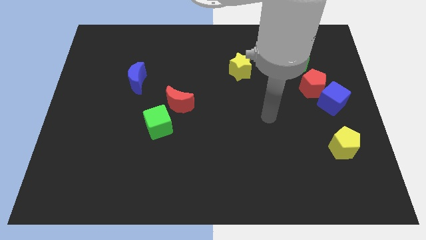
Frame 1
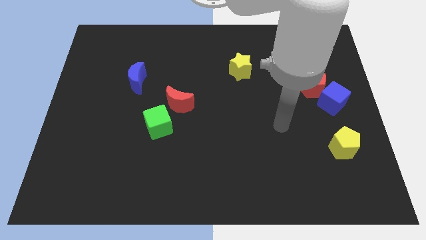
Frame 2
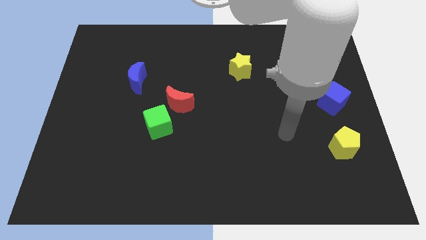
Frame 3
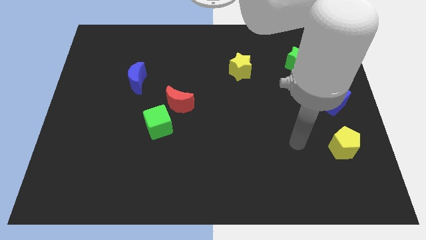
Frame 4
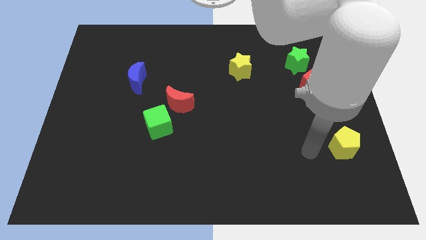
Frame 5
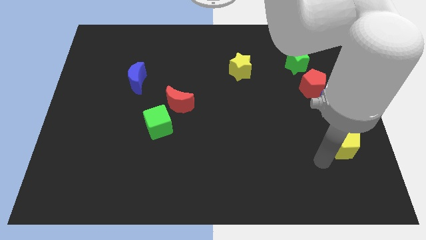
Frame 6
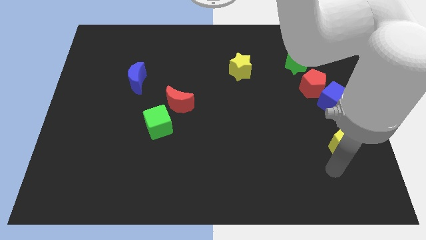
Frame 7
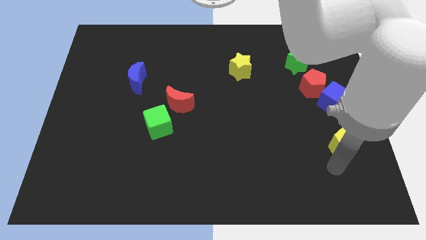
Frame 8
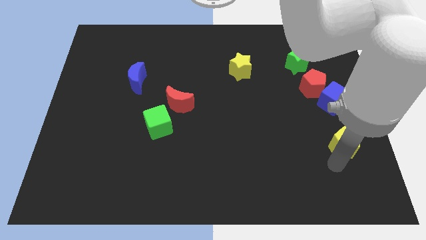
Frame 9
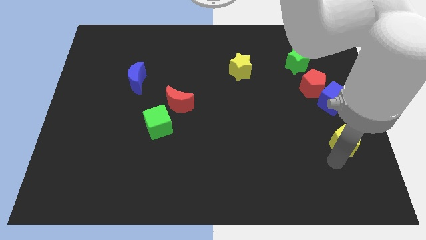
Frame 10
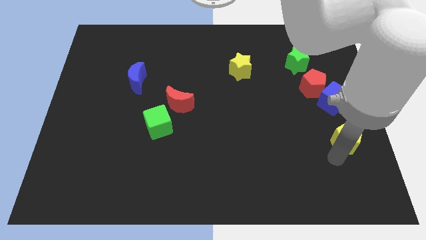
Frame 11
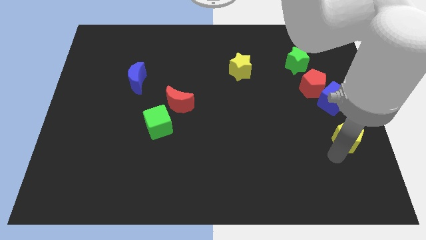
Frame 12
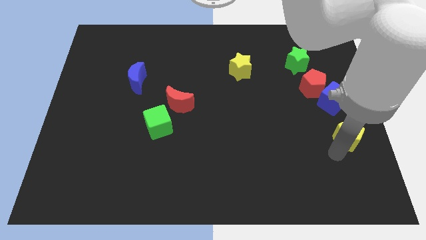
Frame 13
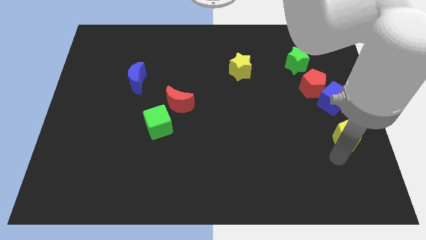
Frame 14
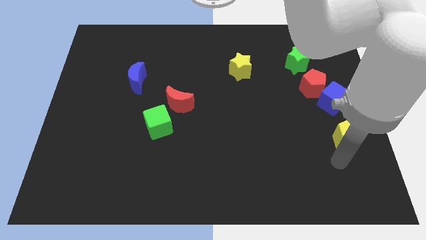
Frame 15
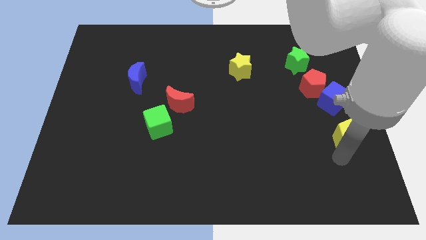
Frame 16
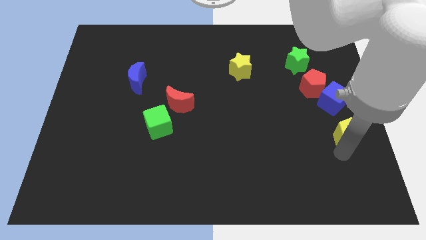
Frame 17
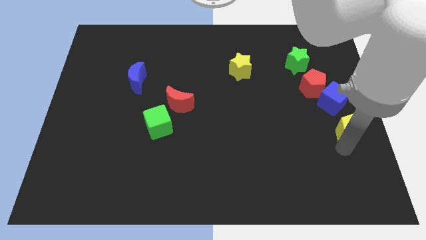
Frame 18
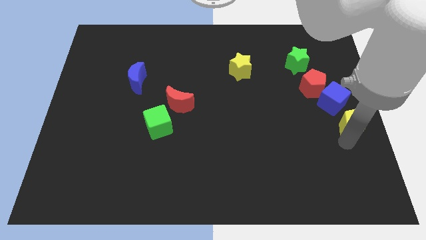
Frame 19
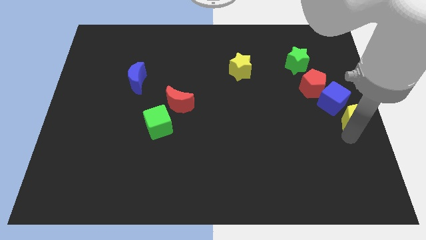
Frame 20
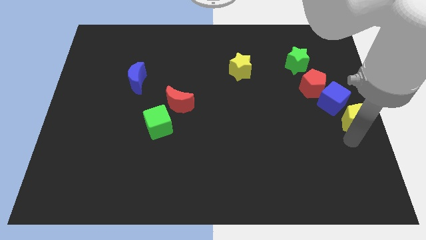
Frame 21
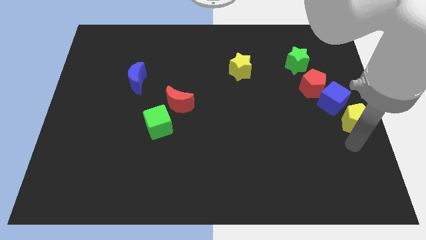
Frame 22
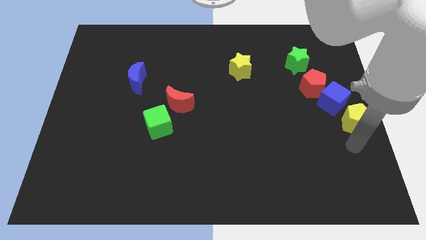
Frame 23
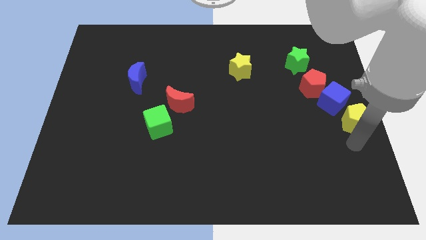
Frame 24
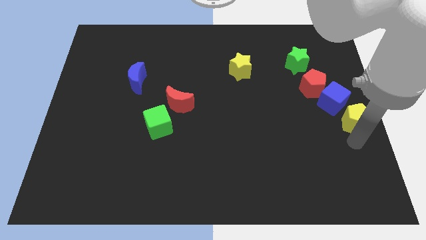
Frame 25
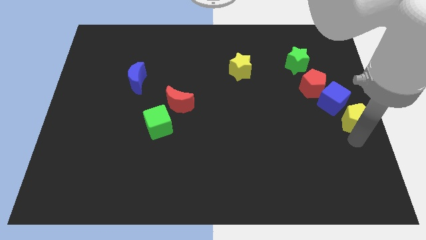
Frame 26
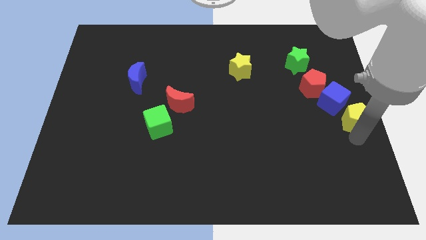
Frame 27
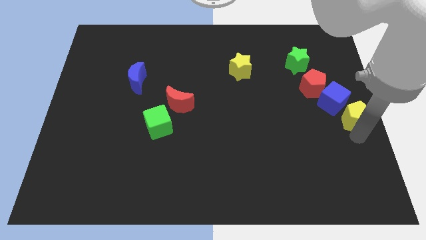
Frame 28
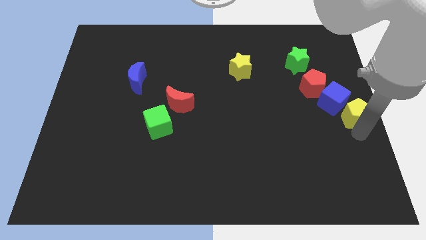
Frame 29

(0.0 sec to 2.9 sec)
push the yellow pentagon up somewhat

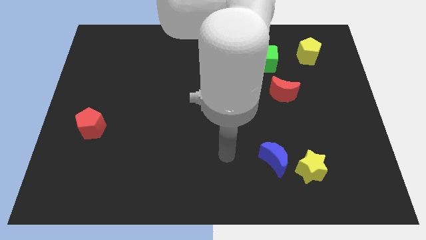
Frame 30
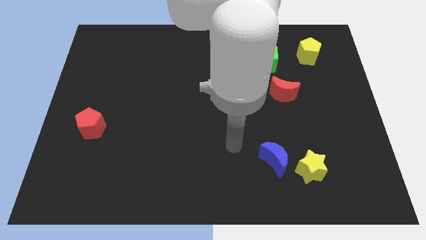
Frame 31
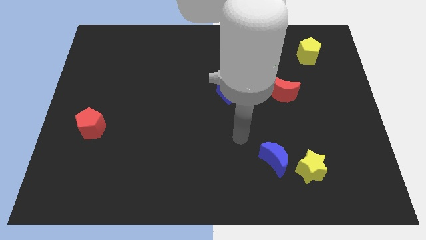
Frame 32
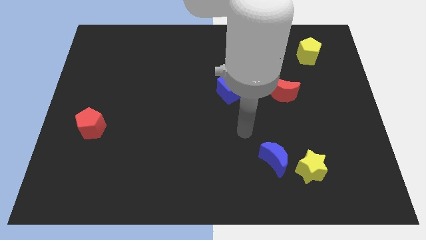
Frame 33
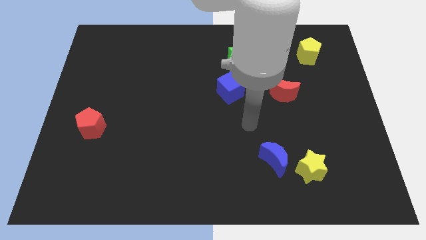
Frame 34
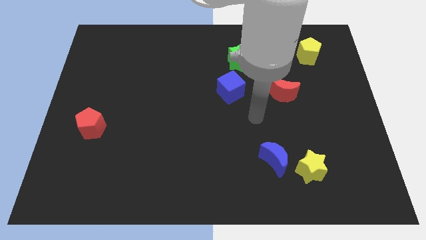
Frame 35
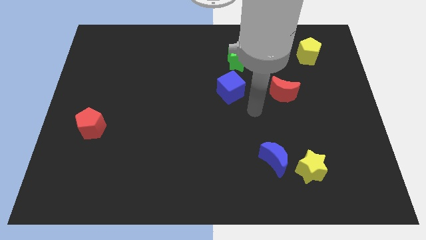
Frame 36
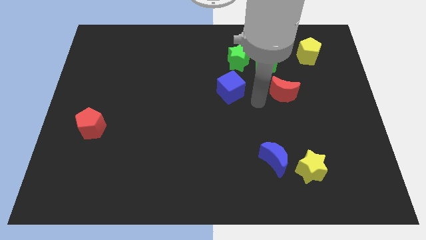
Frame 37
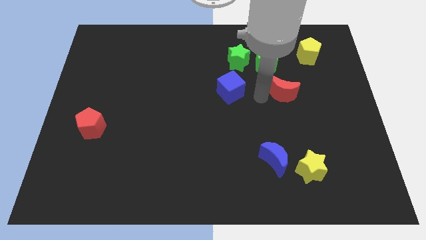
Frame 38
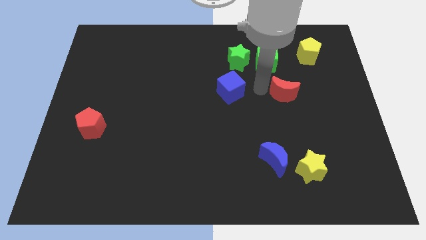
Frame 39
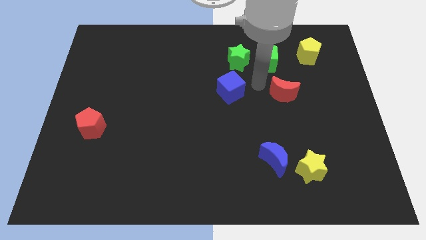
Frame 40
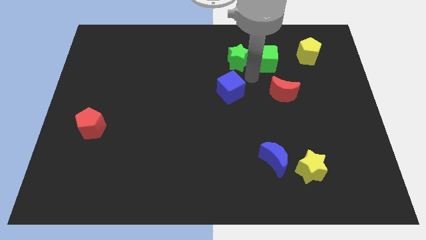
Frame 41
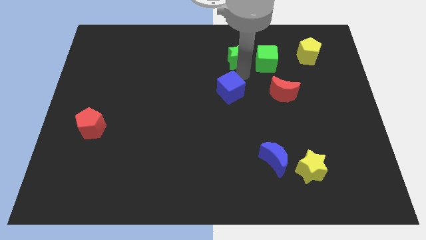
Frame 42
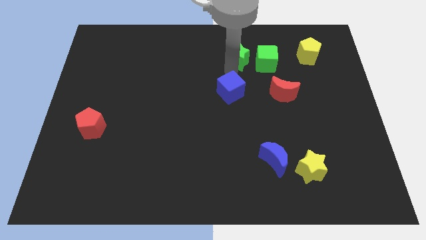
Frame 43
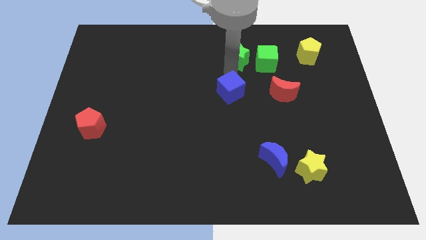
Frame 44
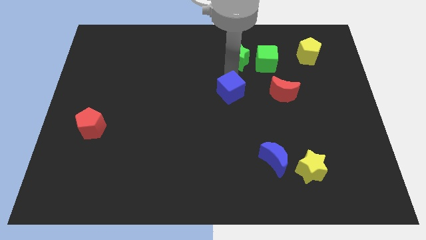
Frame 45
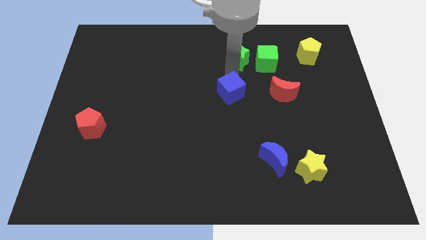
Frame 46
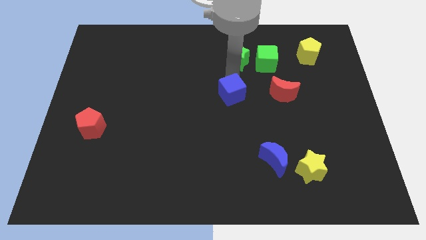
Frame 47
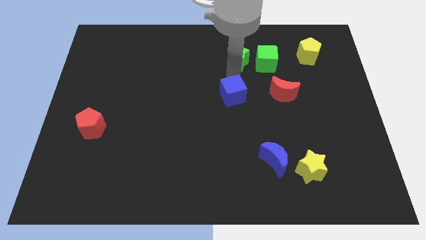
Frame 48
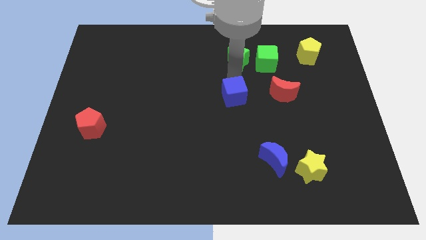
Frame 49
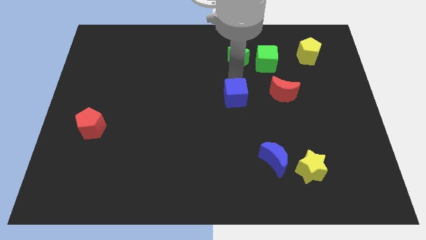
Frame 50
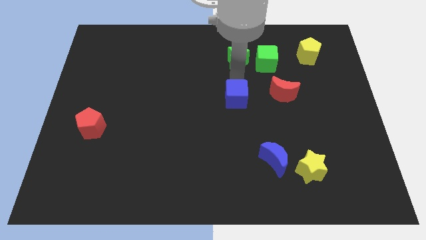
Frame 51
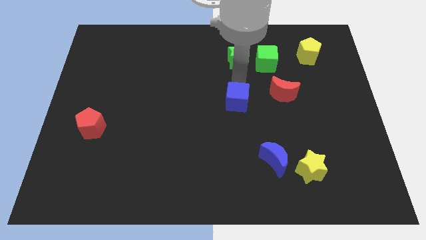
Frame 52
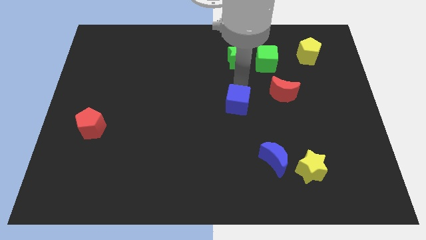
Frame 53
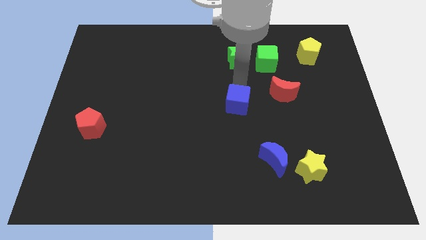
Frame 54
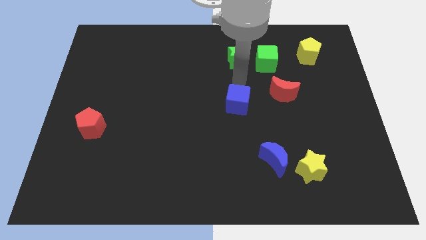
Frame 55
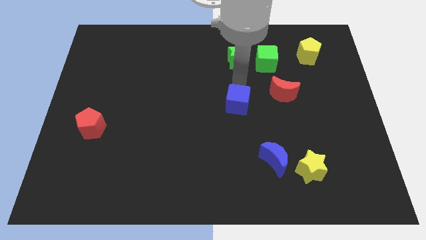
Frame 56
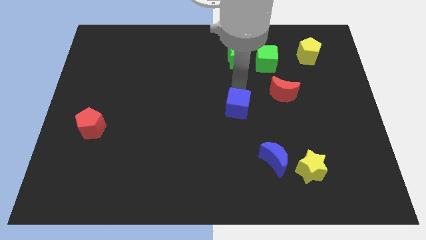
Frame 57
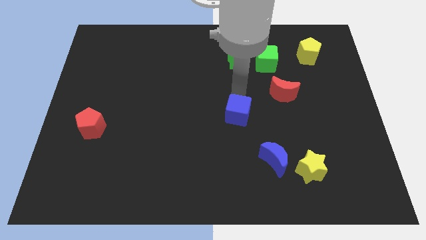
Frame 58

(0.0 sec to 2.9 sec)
slide the blue cube downwards a bit

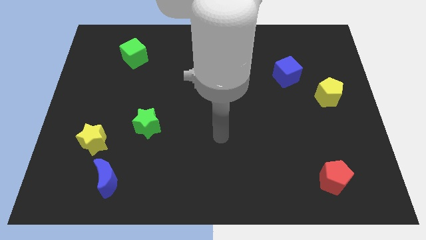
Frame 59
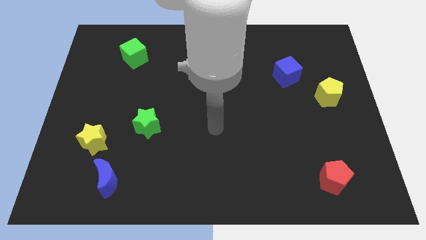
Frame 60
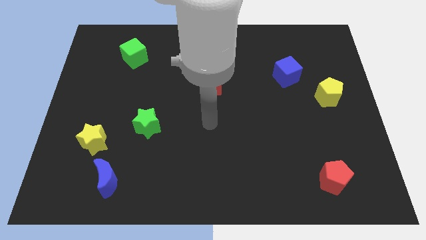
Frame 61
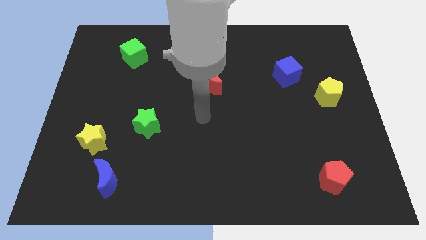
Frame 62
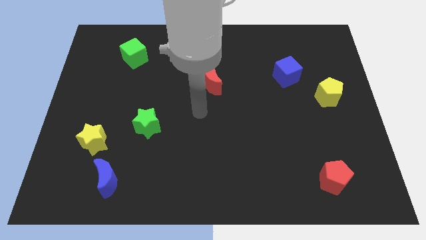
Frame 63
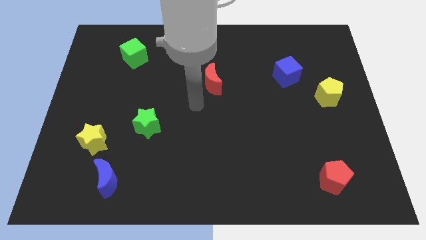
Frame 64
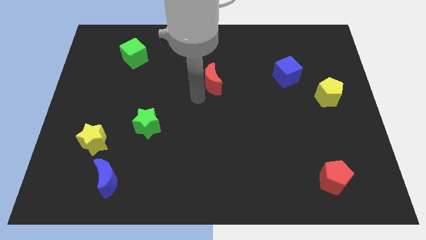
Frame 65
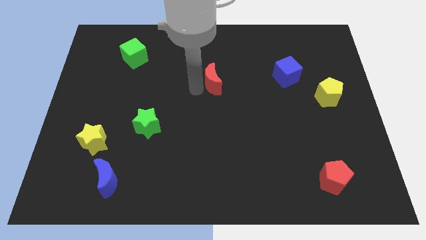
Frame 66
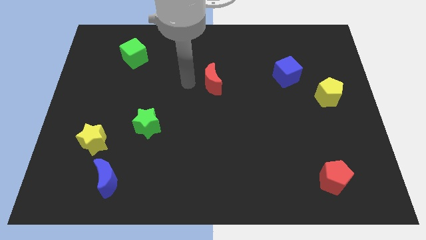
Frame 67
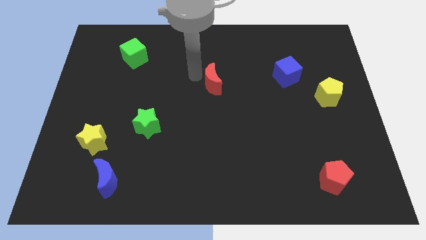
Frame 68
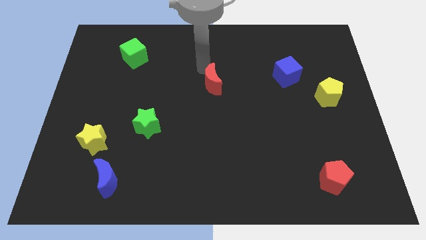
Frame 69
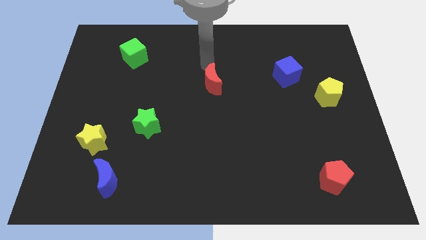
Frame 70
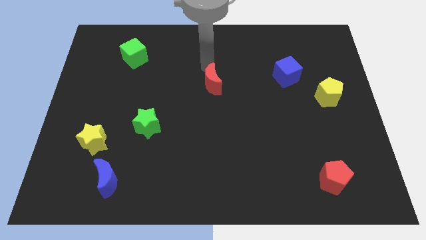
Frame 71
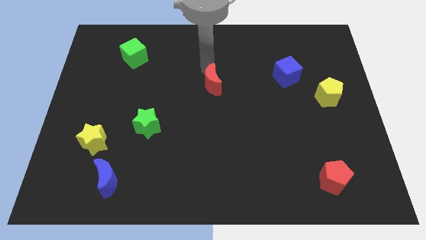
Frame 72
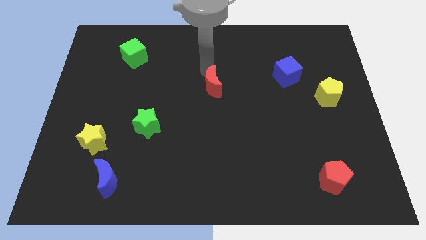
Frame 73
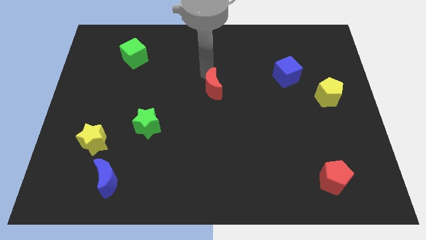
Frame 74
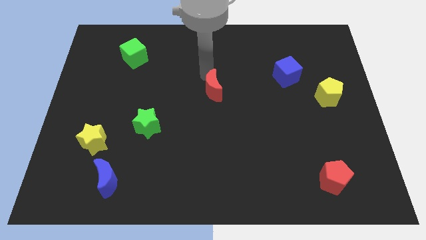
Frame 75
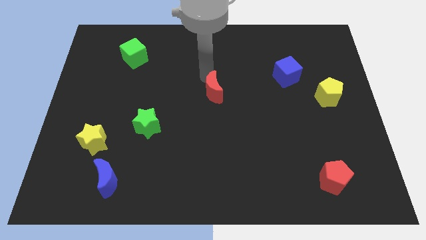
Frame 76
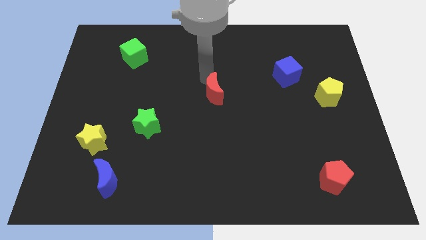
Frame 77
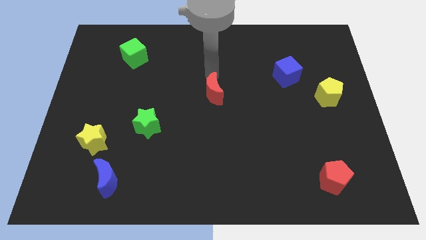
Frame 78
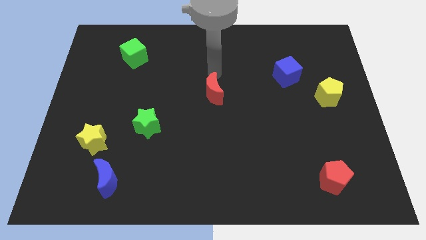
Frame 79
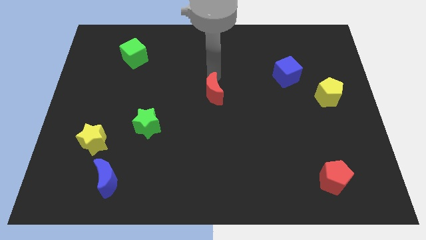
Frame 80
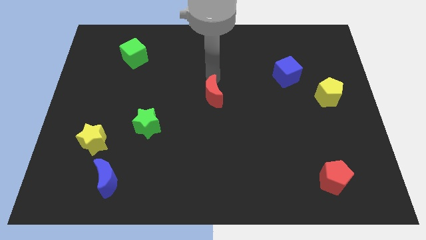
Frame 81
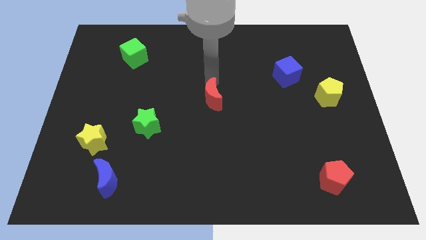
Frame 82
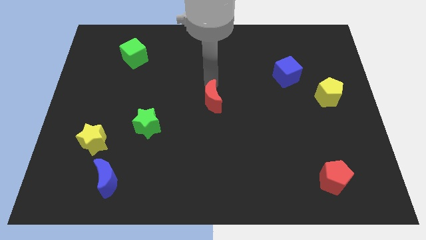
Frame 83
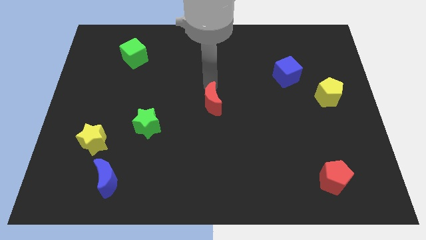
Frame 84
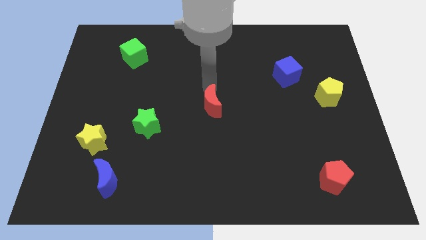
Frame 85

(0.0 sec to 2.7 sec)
slightly slide the red moon down

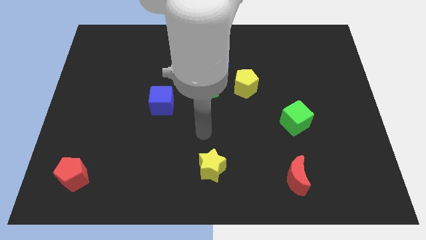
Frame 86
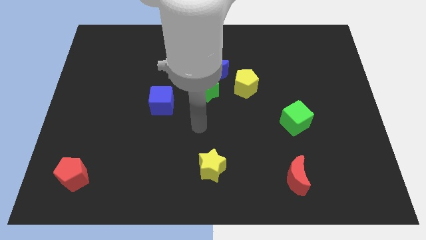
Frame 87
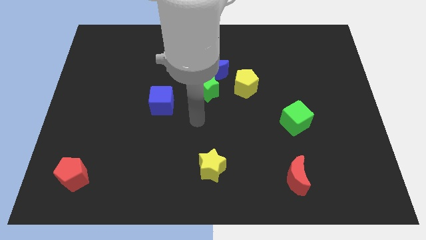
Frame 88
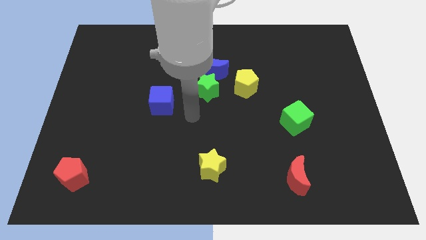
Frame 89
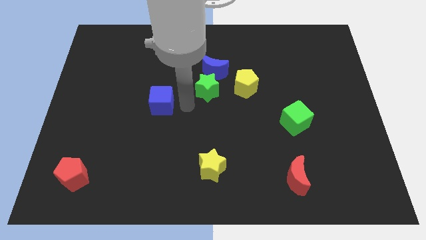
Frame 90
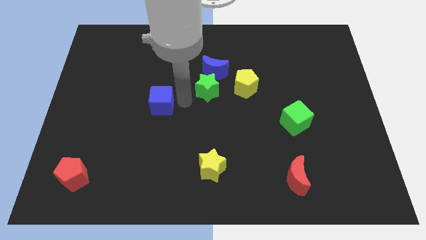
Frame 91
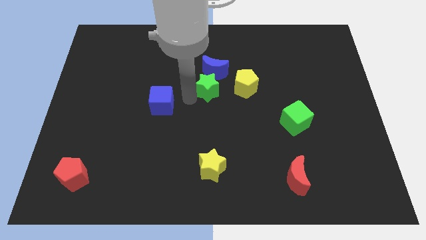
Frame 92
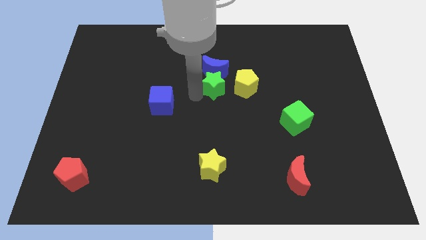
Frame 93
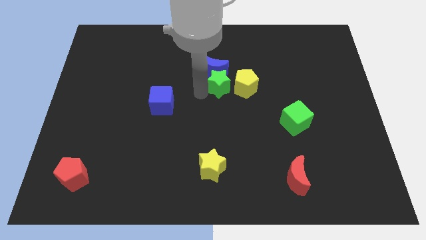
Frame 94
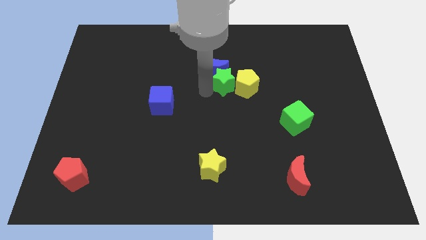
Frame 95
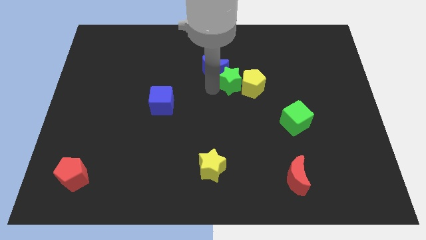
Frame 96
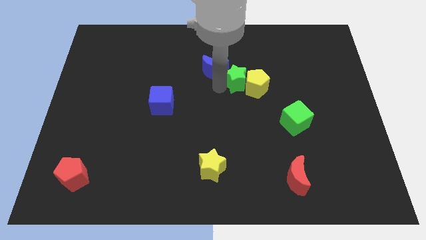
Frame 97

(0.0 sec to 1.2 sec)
slightly move the green star to the right
